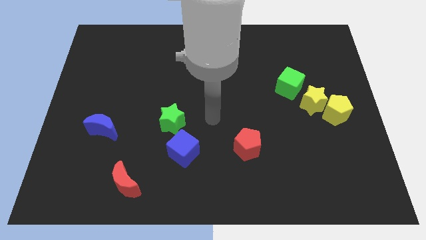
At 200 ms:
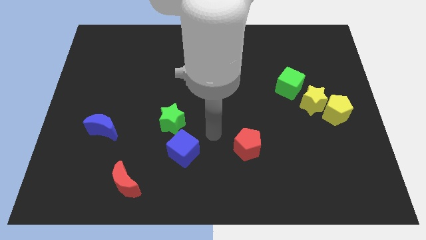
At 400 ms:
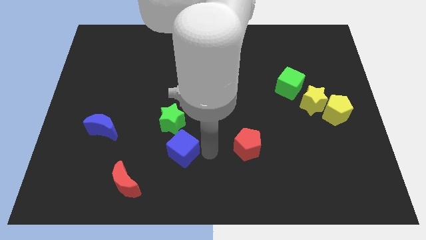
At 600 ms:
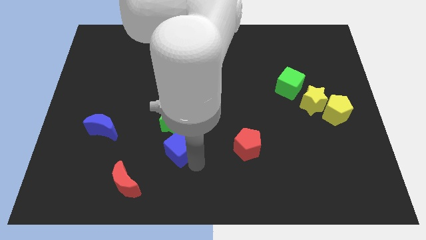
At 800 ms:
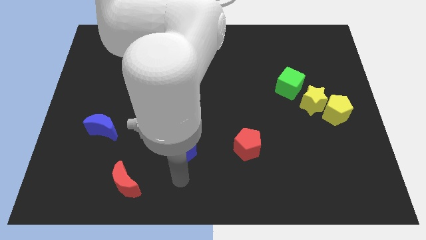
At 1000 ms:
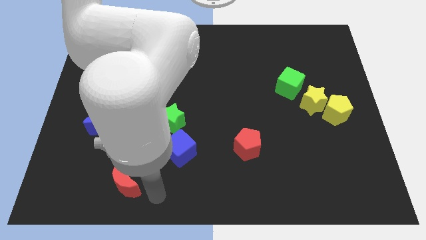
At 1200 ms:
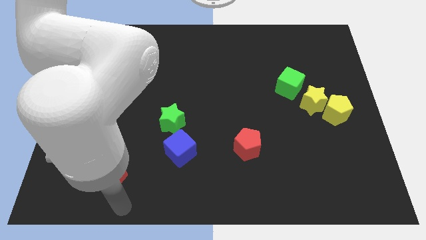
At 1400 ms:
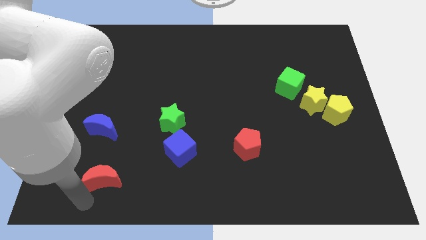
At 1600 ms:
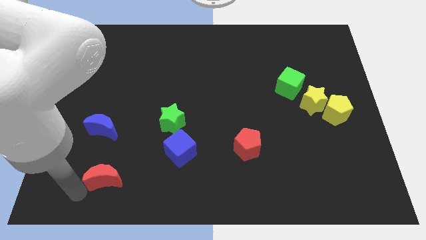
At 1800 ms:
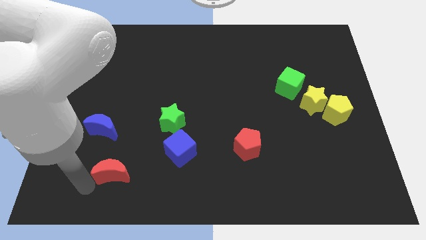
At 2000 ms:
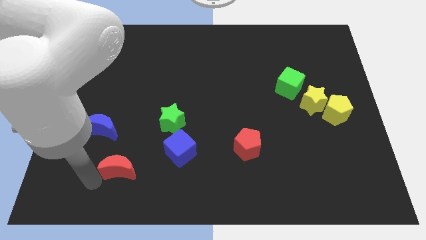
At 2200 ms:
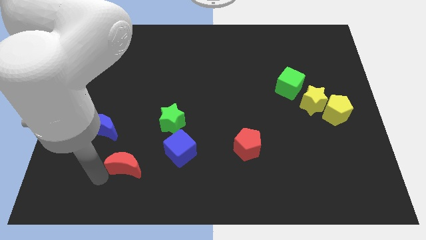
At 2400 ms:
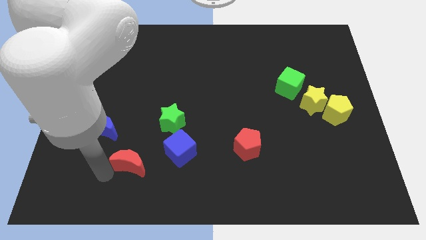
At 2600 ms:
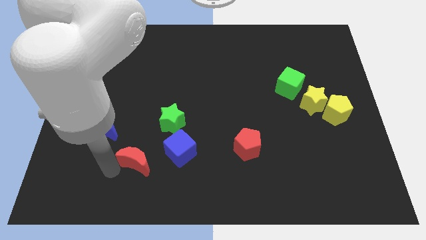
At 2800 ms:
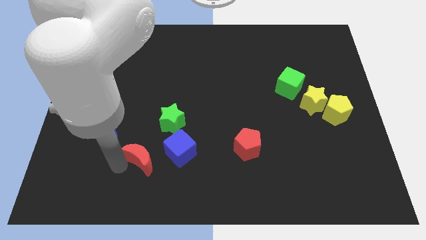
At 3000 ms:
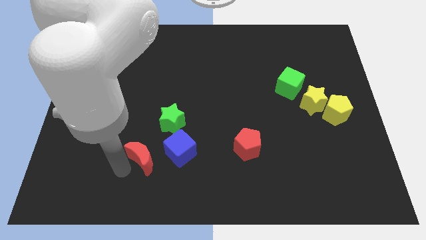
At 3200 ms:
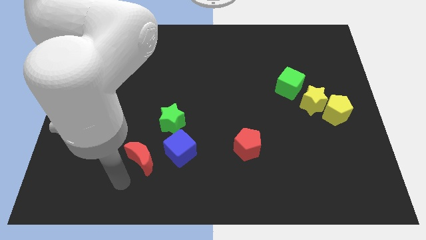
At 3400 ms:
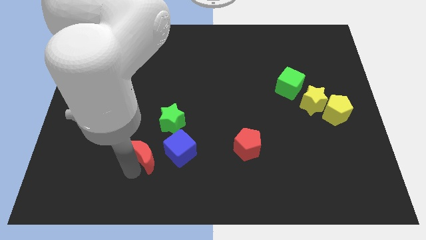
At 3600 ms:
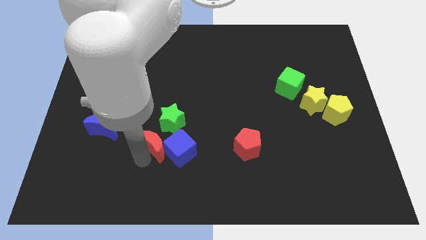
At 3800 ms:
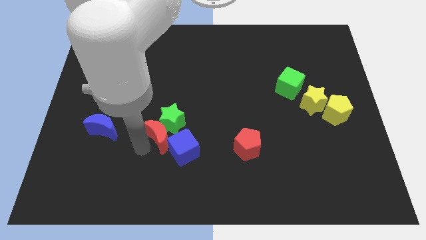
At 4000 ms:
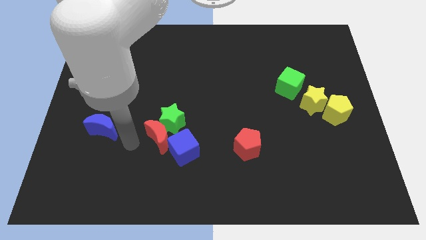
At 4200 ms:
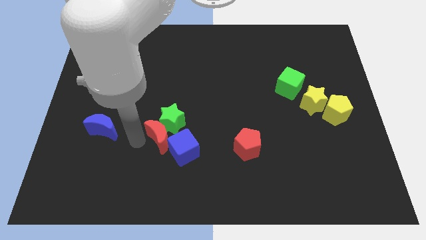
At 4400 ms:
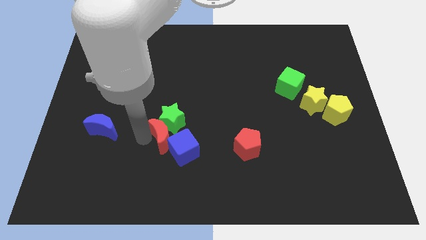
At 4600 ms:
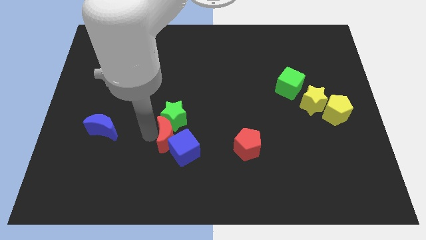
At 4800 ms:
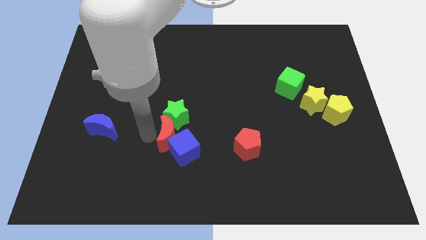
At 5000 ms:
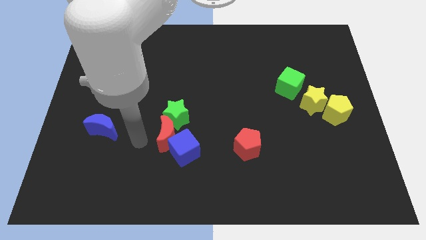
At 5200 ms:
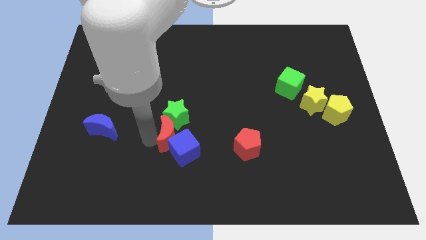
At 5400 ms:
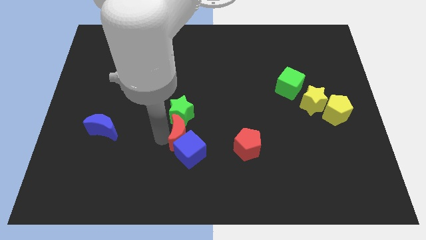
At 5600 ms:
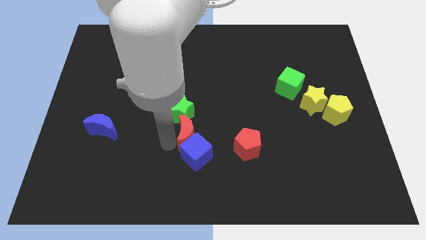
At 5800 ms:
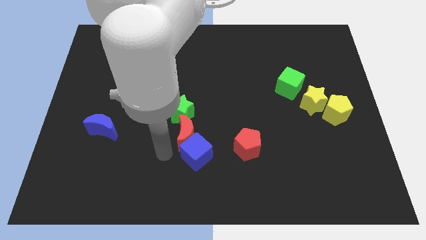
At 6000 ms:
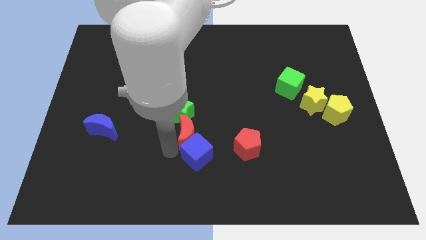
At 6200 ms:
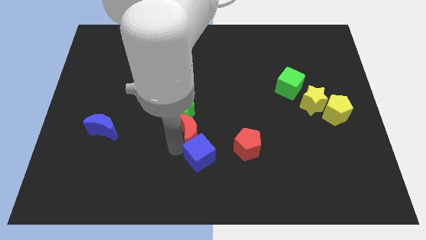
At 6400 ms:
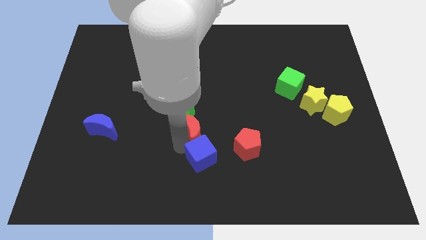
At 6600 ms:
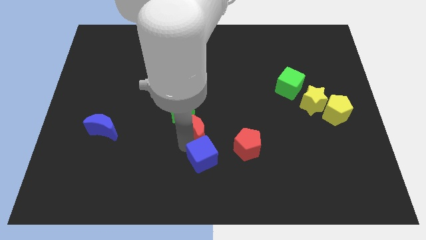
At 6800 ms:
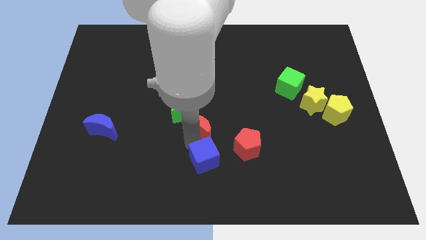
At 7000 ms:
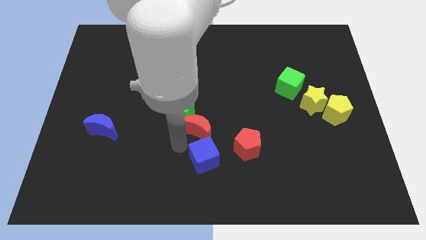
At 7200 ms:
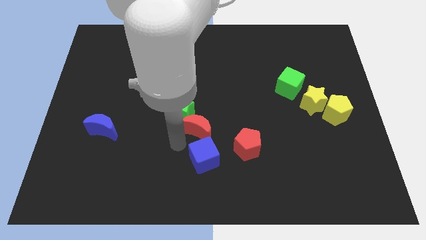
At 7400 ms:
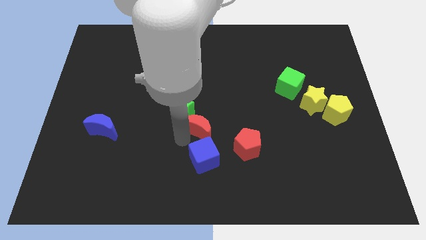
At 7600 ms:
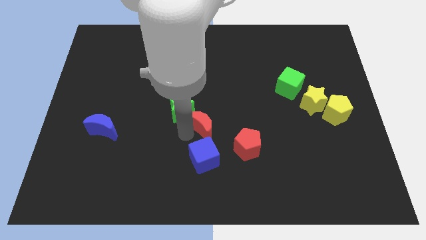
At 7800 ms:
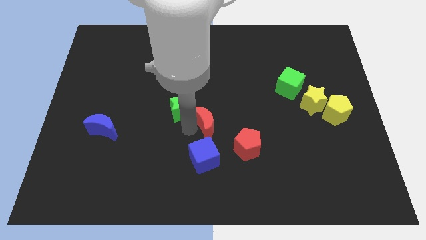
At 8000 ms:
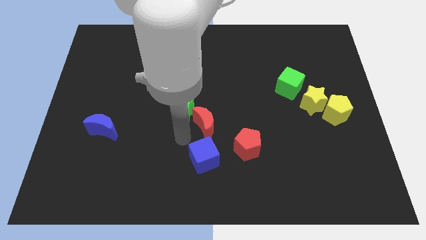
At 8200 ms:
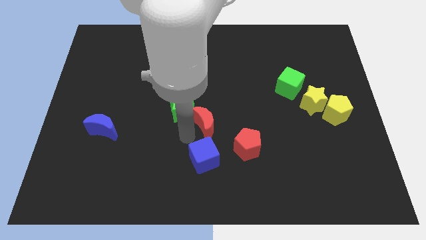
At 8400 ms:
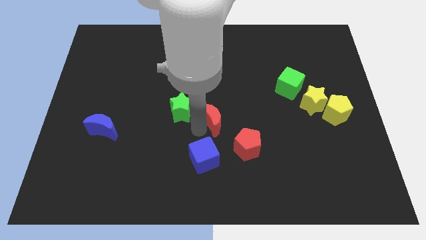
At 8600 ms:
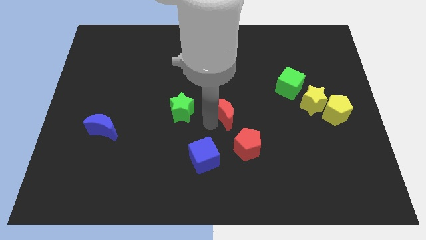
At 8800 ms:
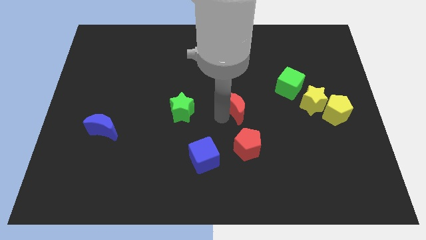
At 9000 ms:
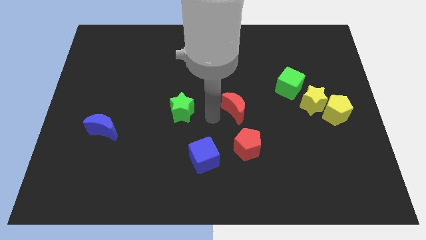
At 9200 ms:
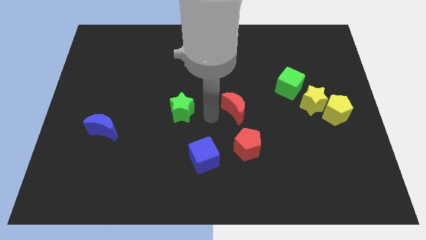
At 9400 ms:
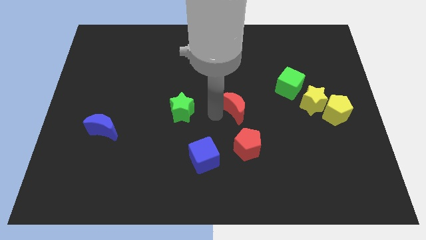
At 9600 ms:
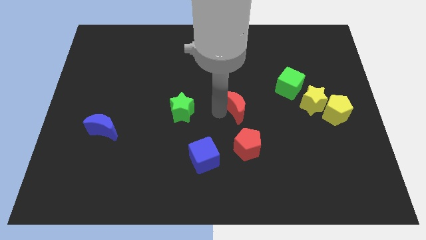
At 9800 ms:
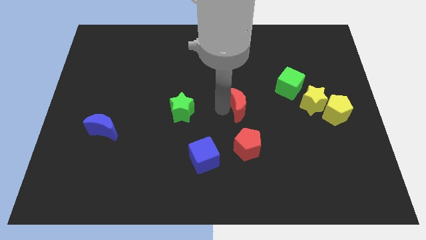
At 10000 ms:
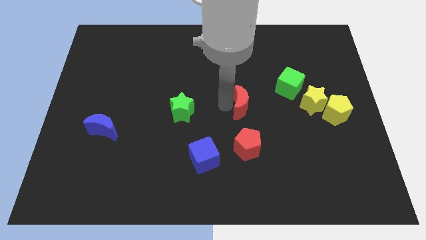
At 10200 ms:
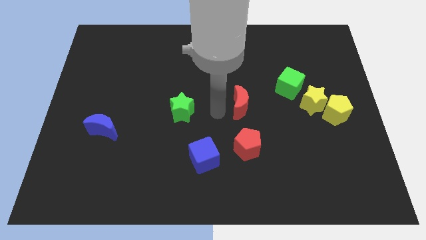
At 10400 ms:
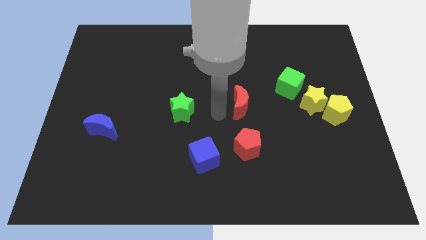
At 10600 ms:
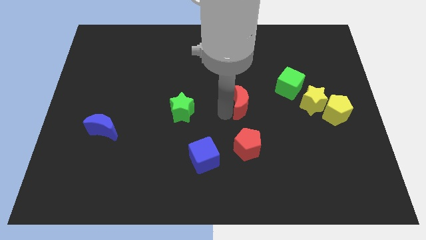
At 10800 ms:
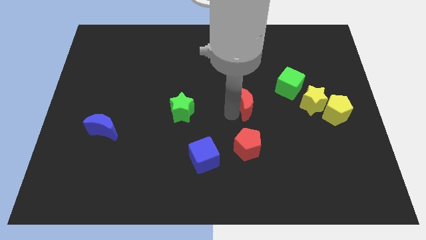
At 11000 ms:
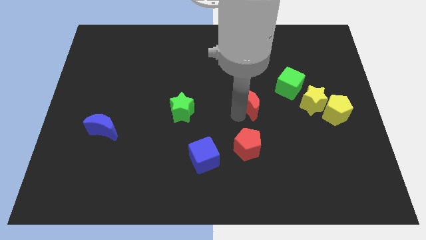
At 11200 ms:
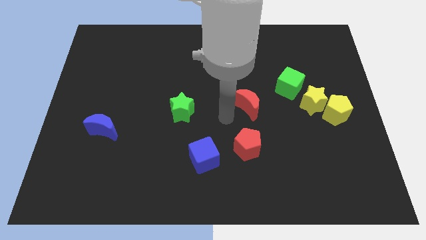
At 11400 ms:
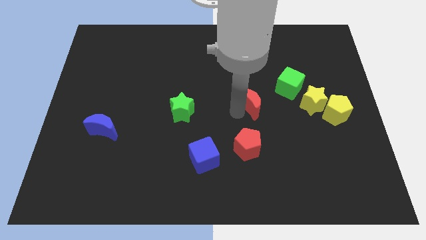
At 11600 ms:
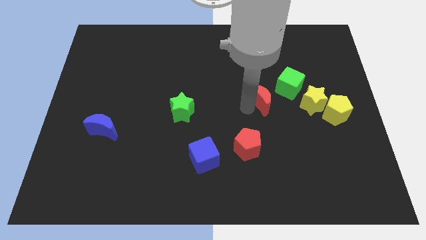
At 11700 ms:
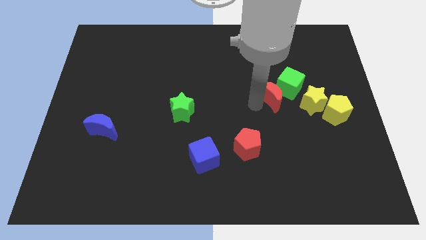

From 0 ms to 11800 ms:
move the red moon close to the green cube

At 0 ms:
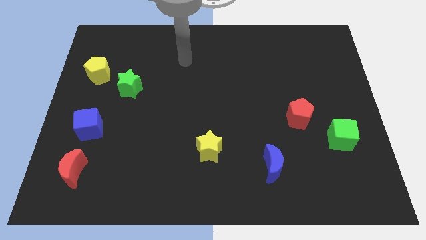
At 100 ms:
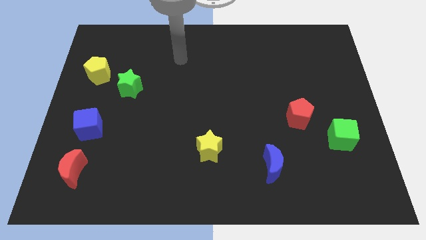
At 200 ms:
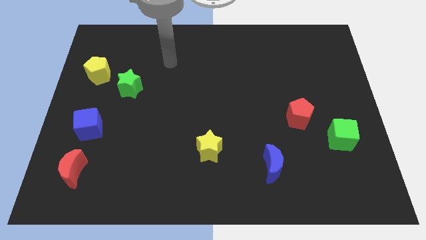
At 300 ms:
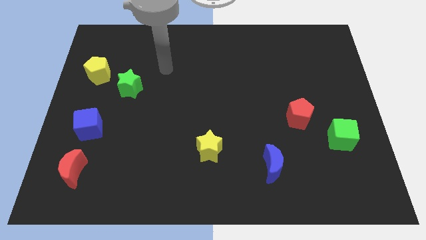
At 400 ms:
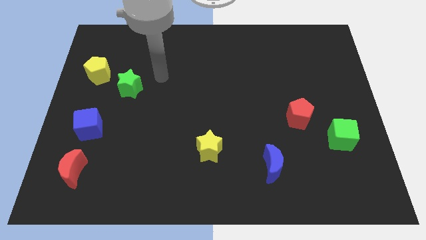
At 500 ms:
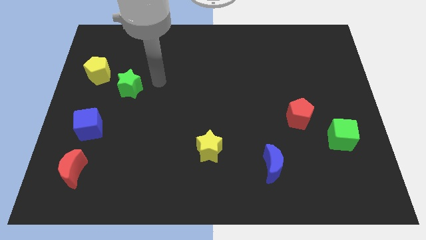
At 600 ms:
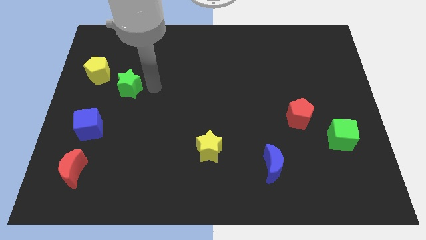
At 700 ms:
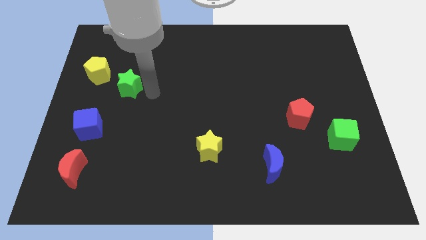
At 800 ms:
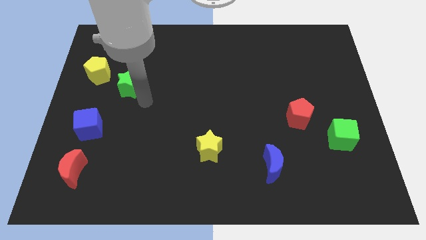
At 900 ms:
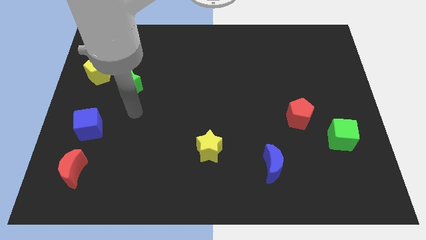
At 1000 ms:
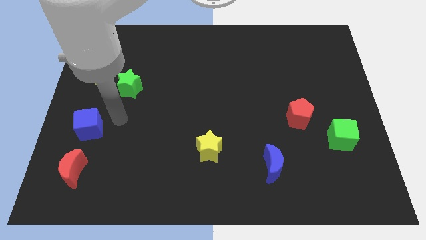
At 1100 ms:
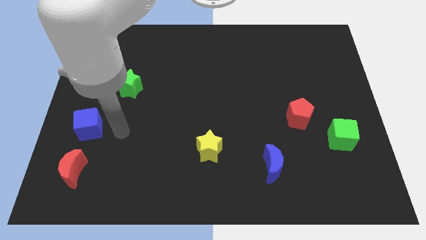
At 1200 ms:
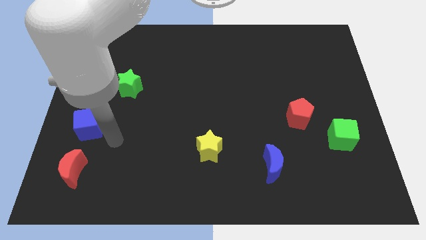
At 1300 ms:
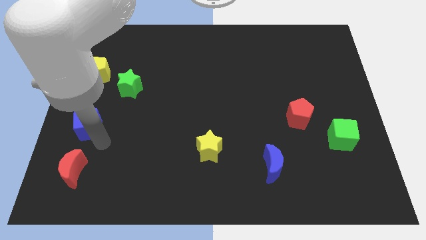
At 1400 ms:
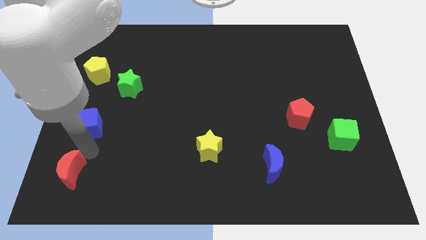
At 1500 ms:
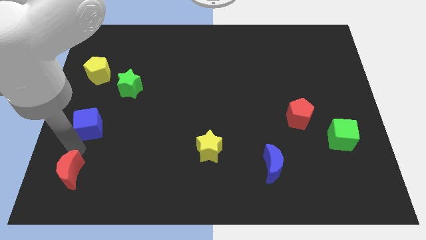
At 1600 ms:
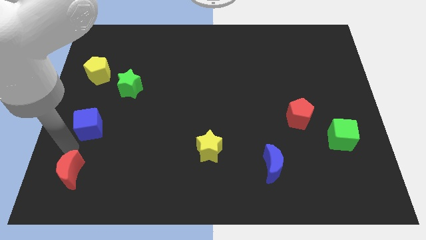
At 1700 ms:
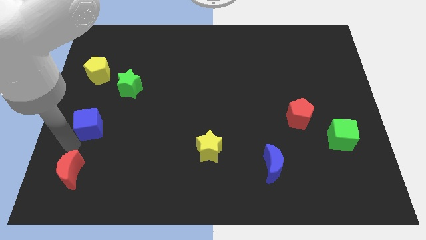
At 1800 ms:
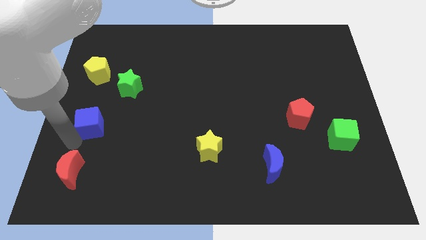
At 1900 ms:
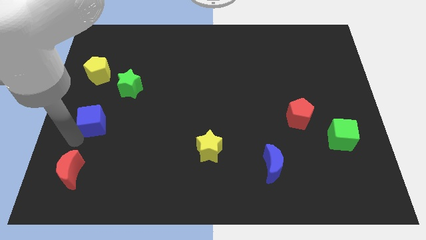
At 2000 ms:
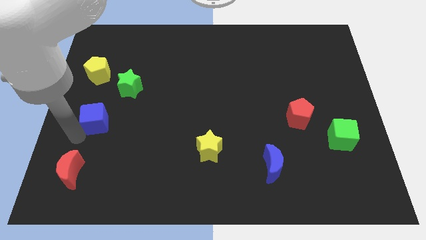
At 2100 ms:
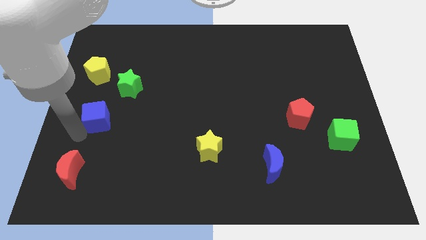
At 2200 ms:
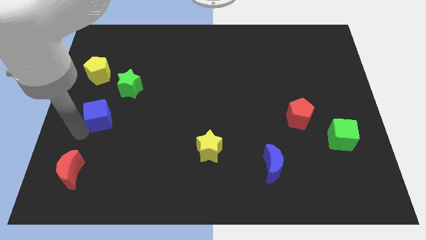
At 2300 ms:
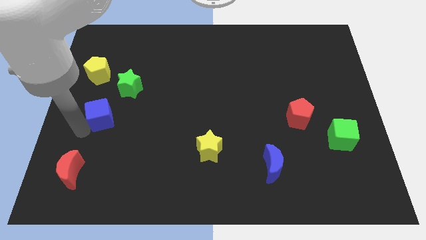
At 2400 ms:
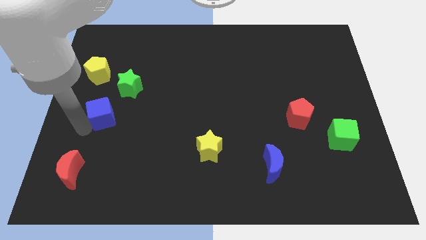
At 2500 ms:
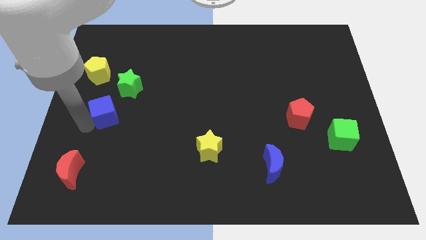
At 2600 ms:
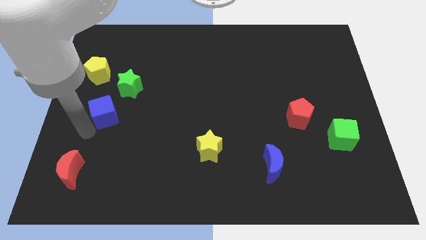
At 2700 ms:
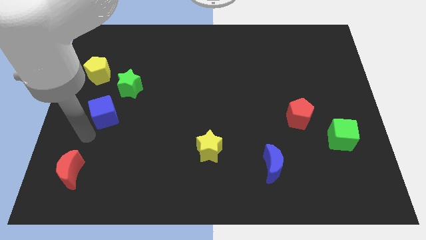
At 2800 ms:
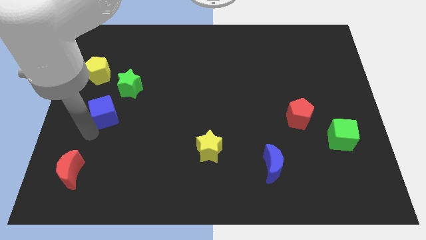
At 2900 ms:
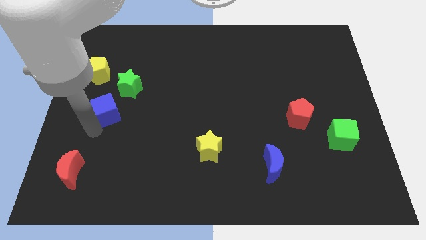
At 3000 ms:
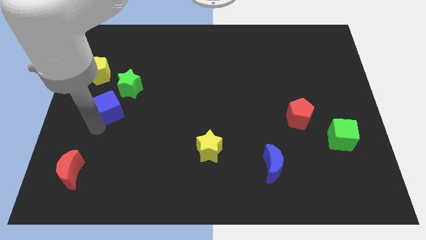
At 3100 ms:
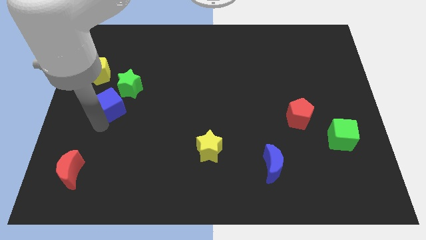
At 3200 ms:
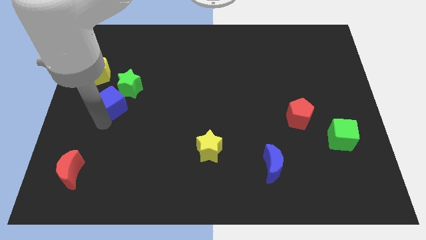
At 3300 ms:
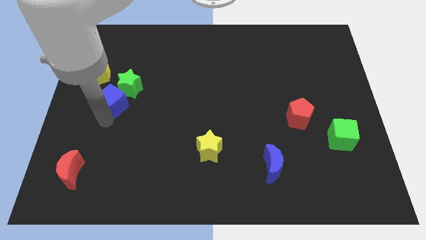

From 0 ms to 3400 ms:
slide the blue cube to the green star
